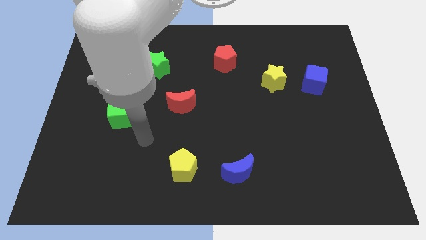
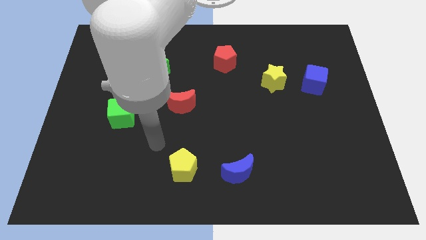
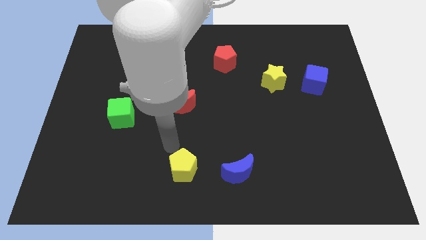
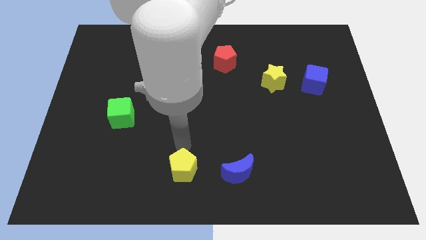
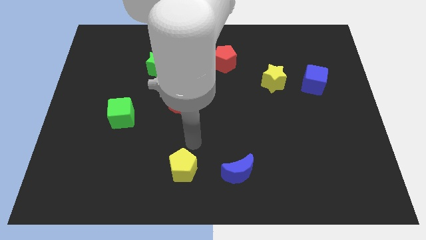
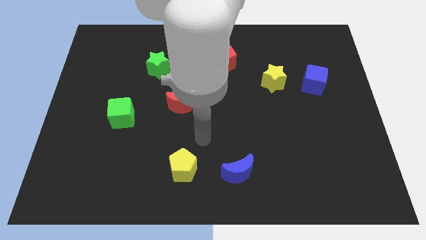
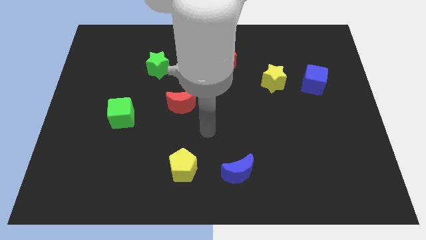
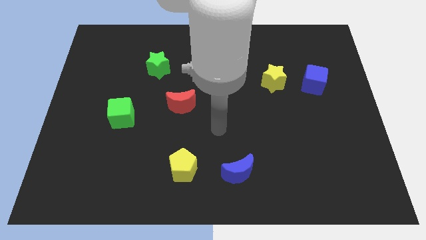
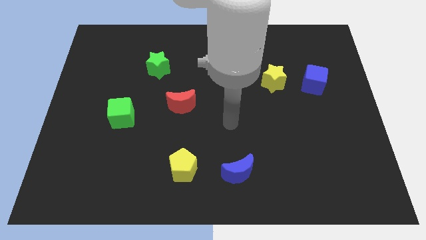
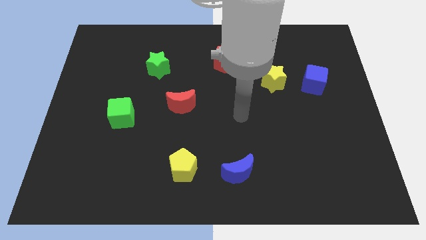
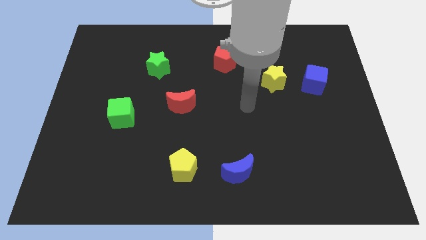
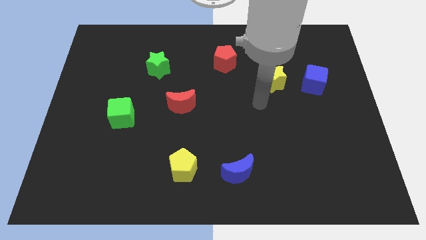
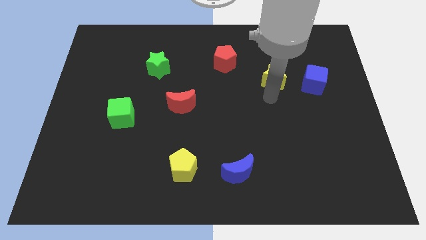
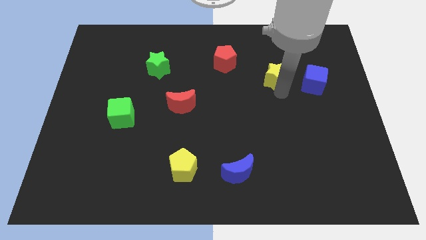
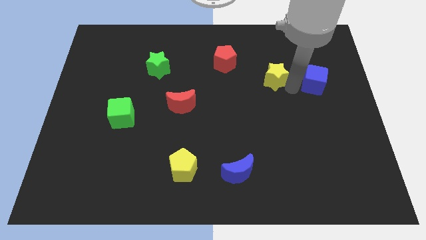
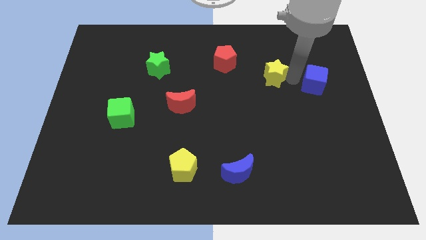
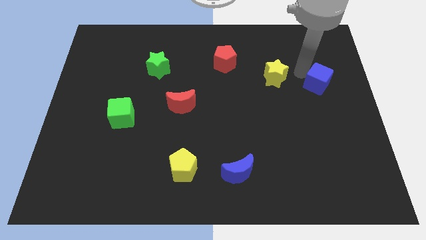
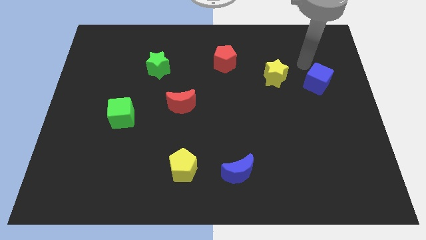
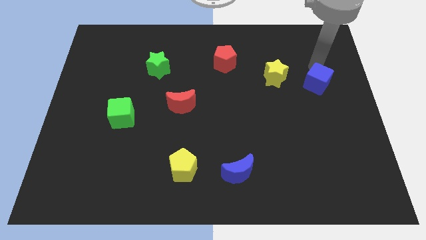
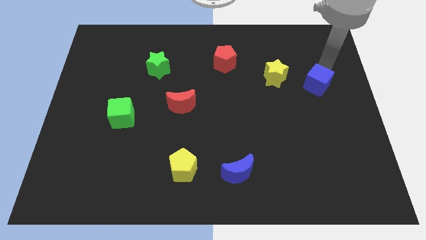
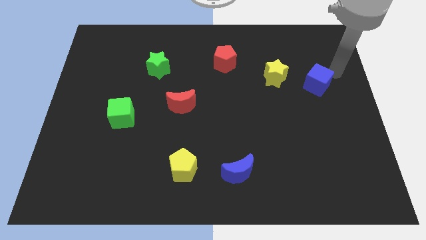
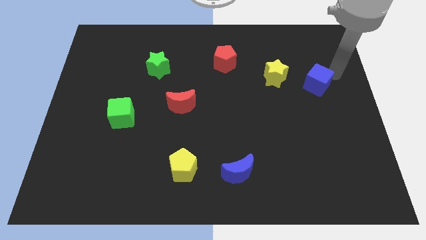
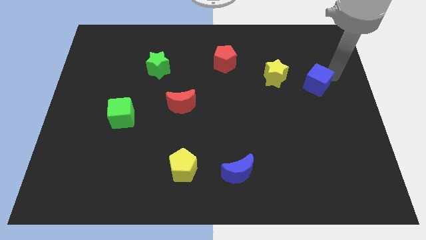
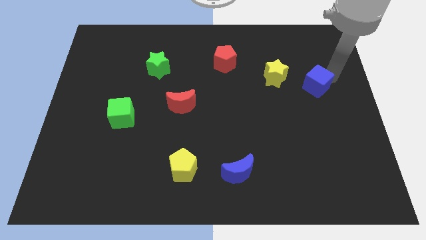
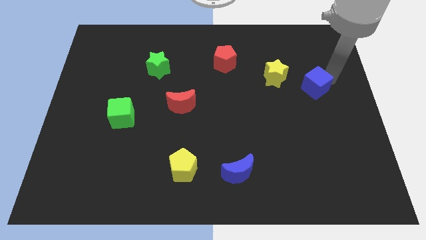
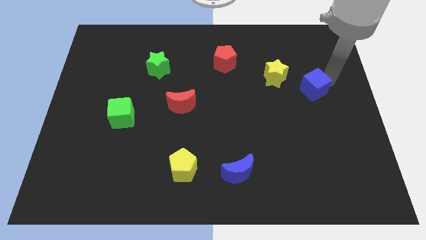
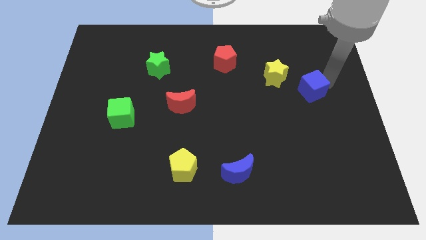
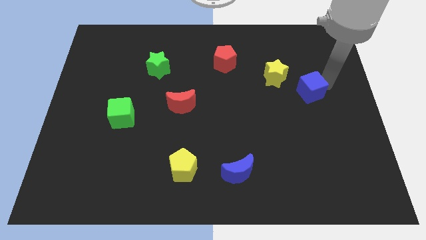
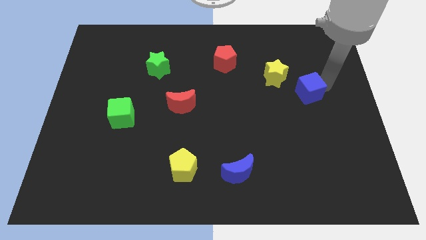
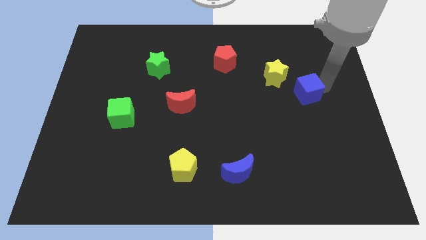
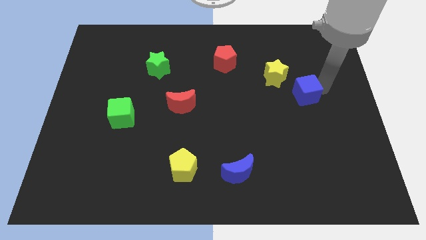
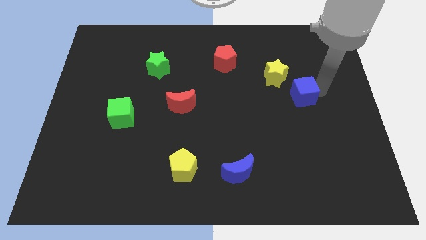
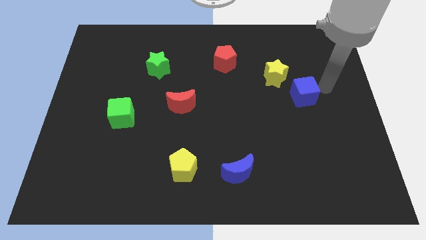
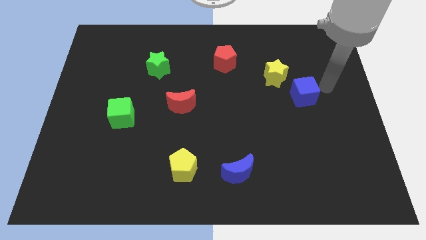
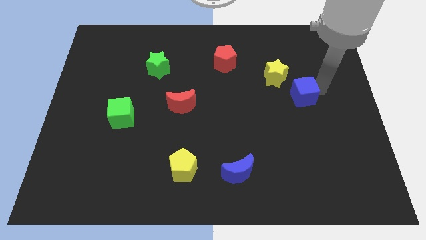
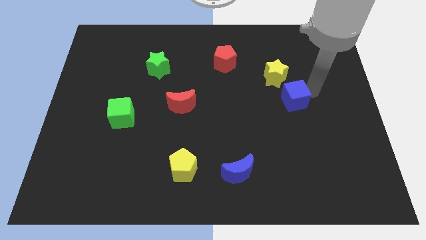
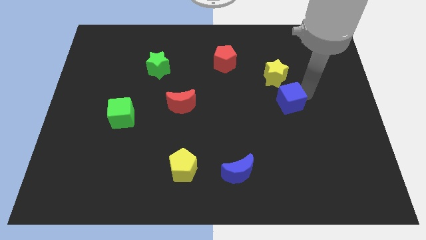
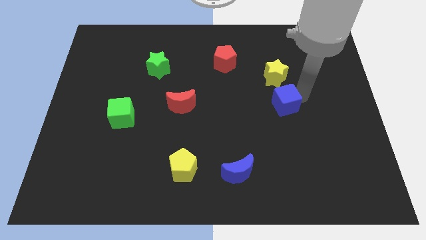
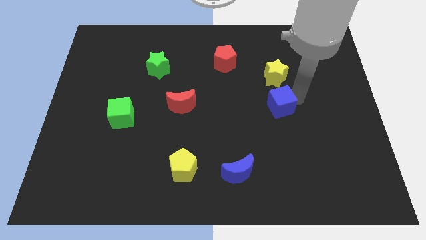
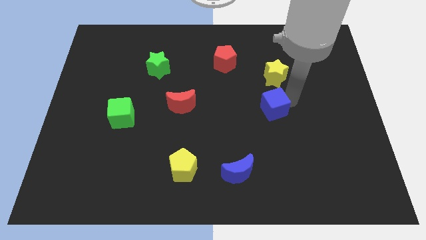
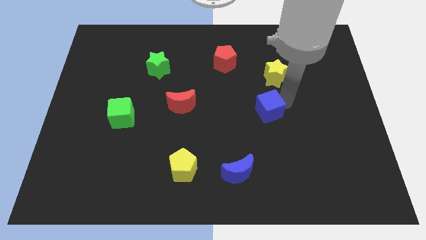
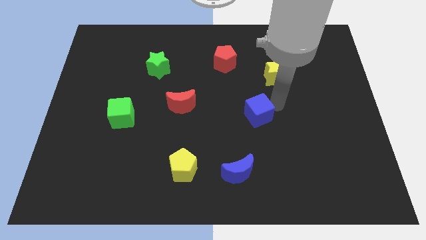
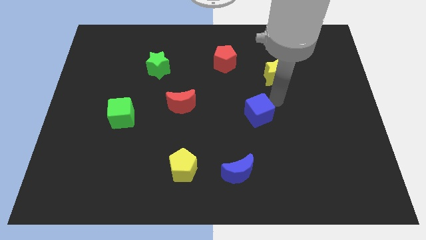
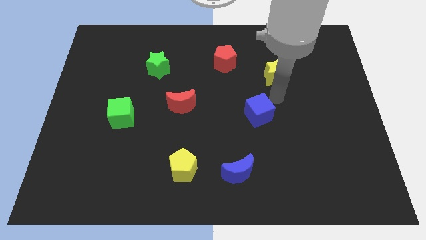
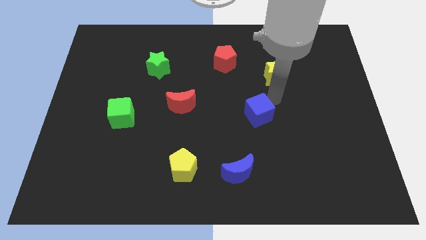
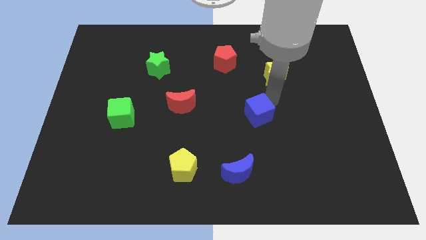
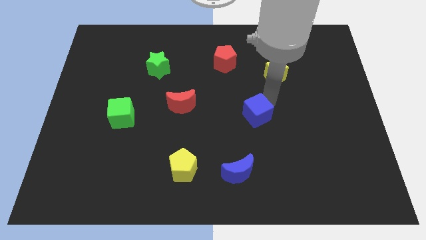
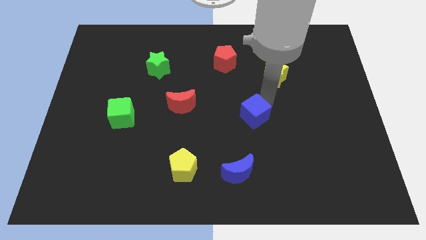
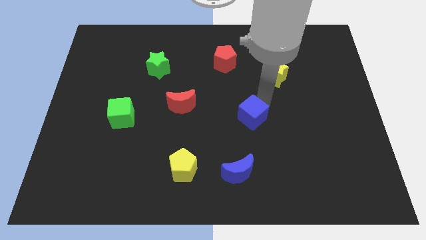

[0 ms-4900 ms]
put the blue cube to the top side of the blue moon

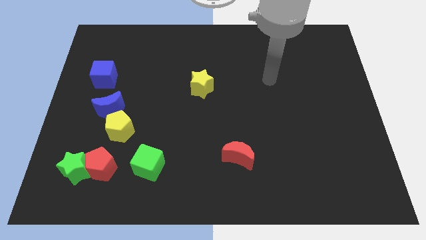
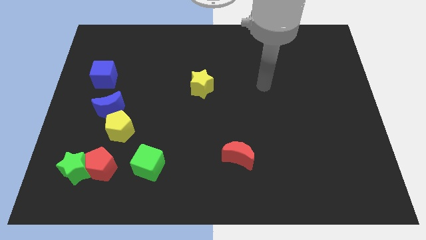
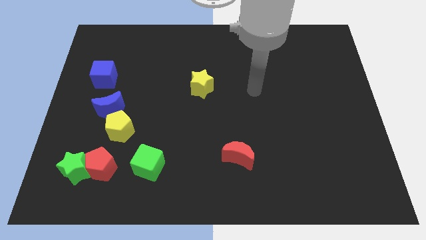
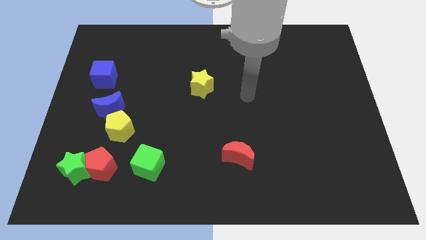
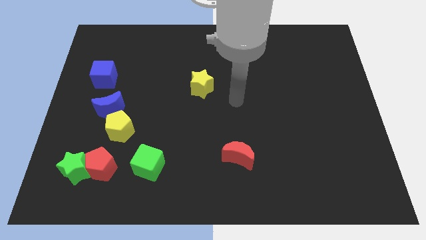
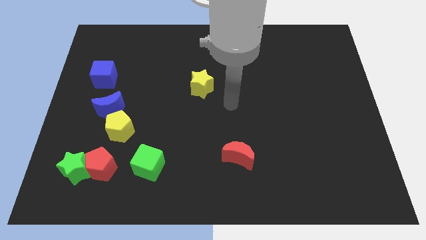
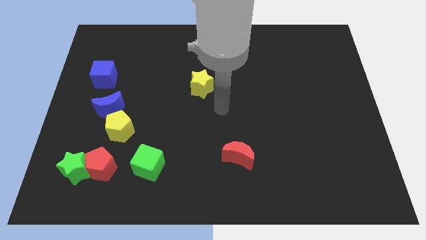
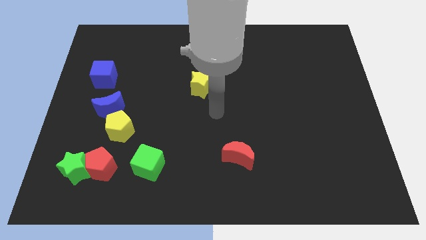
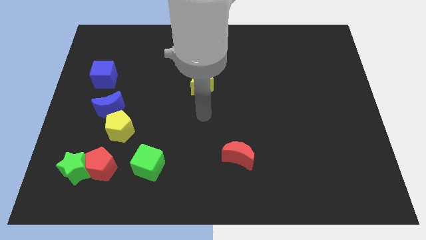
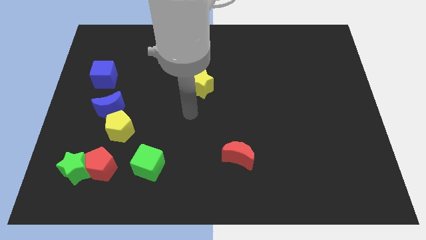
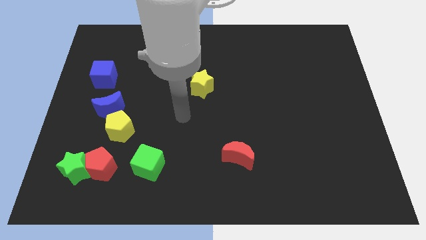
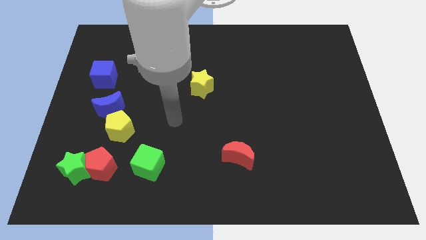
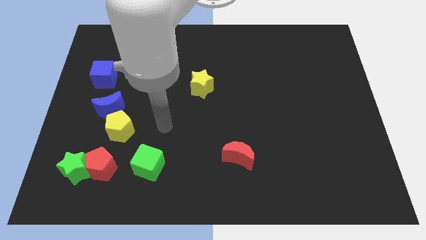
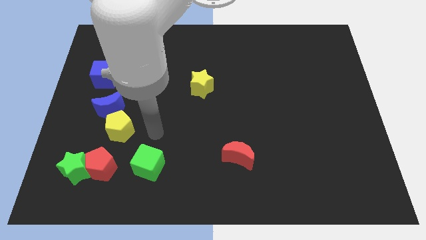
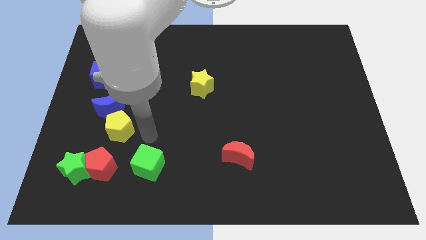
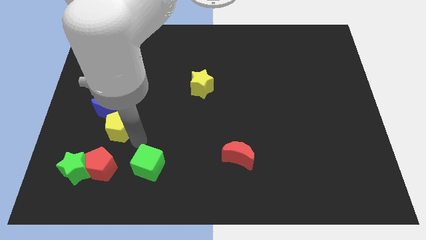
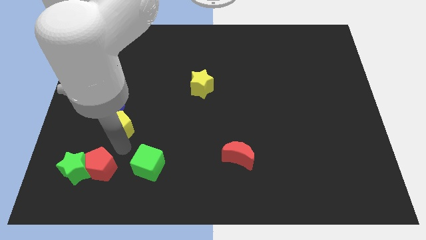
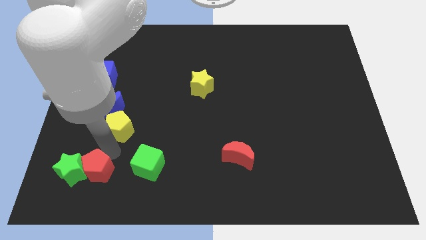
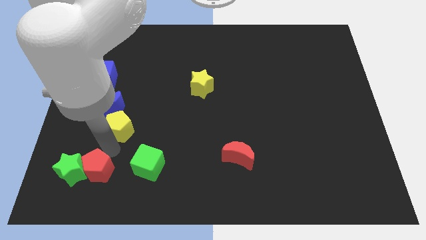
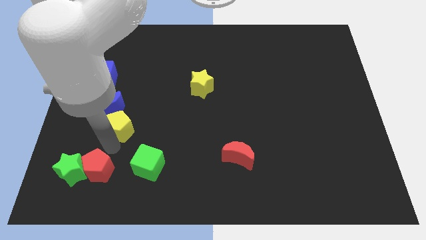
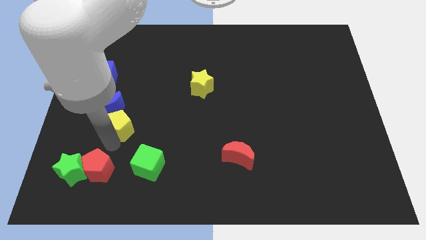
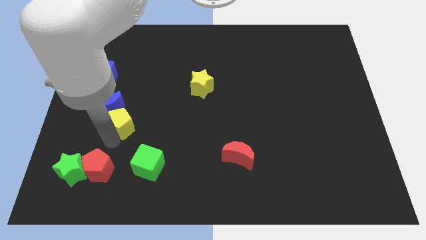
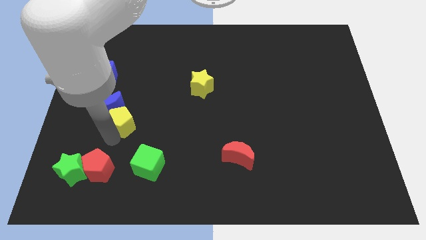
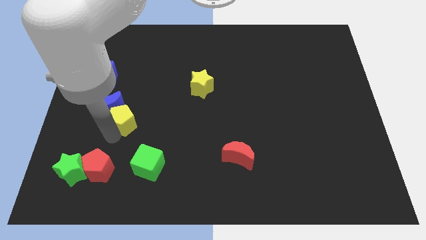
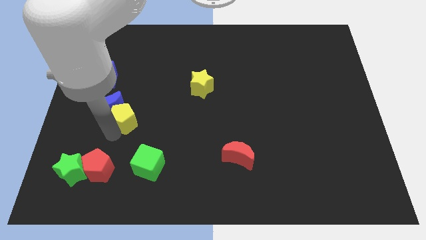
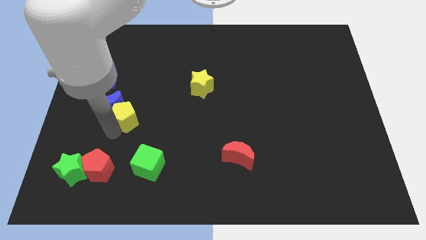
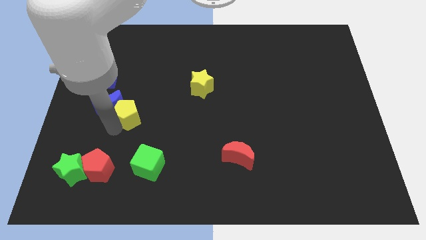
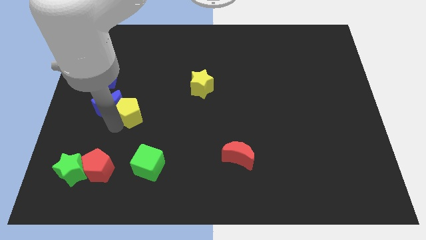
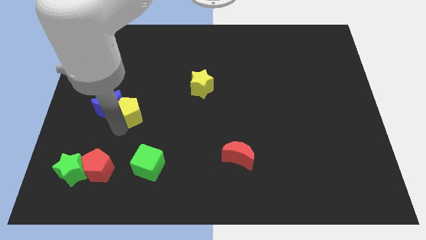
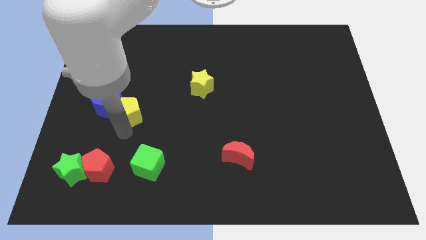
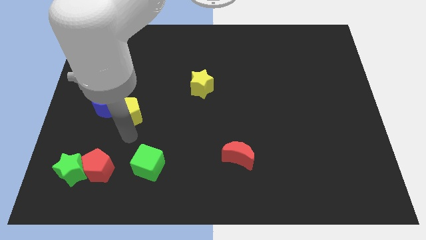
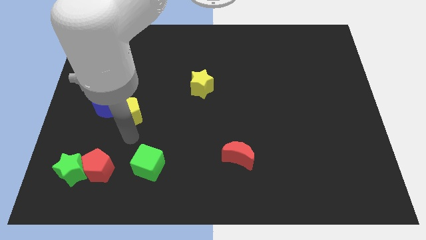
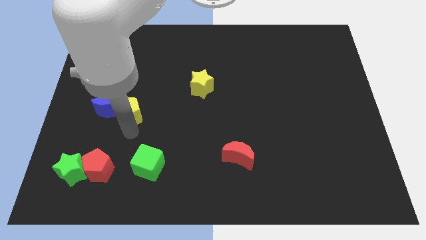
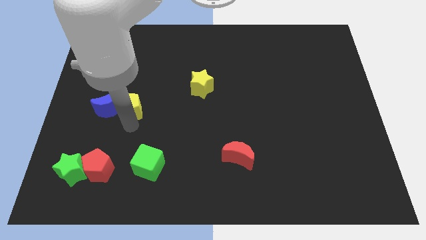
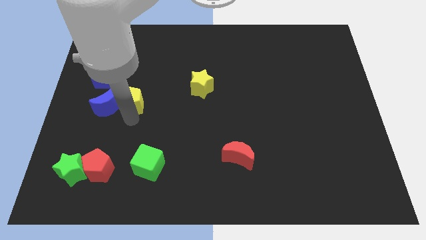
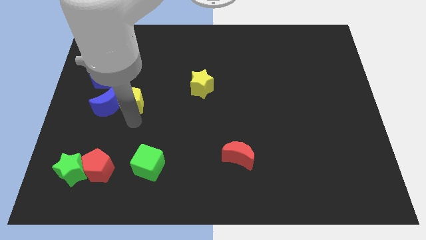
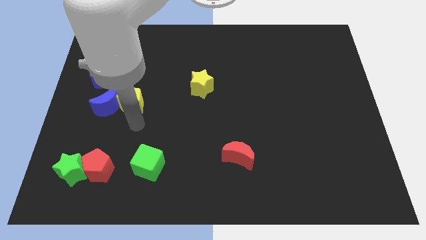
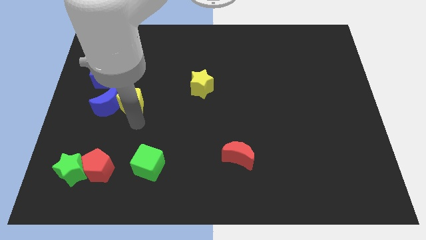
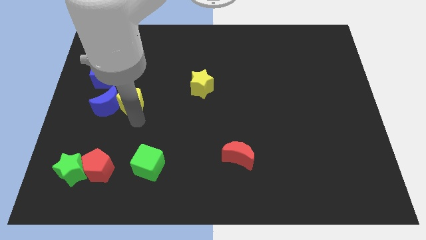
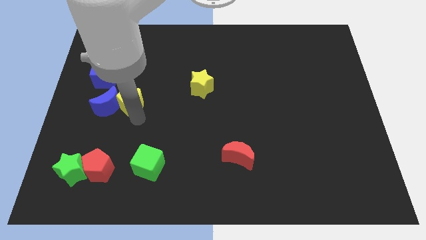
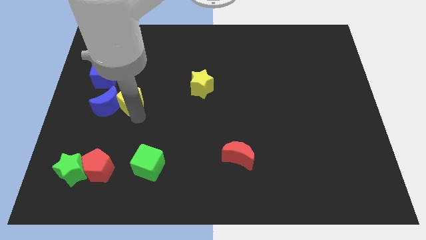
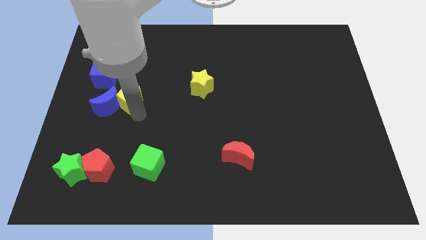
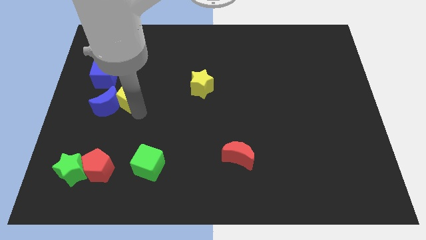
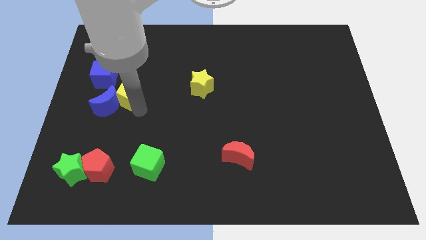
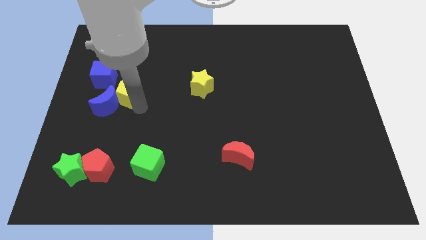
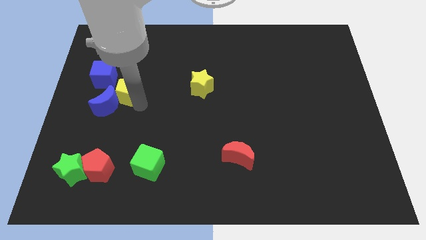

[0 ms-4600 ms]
move the yellow pentagon above the blue moon
